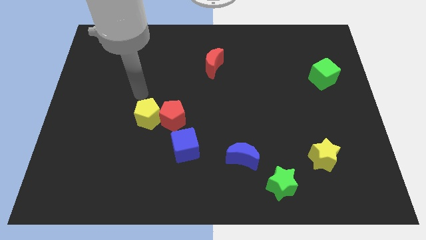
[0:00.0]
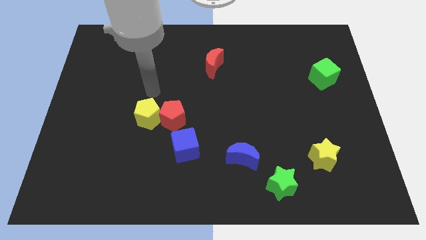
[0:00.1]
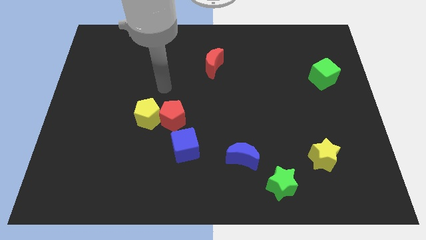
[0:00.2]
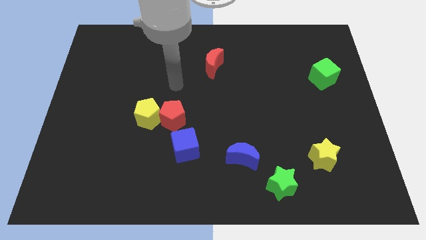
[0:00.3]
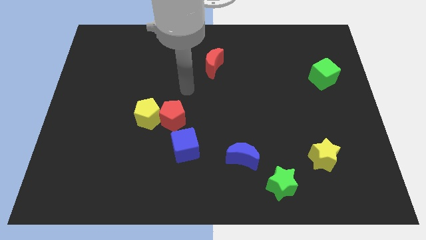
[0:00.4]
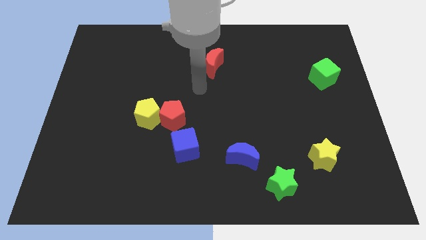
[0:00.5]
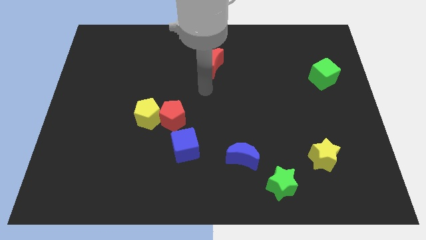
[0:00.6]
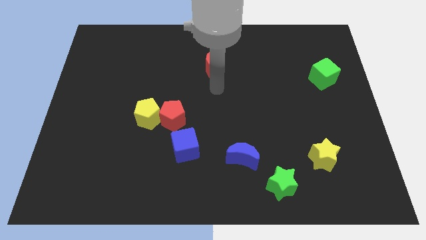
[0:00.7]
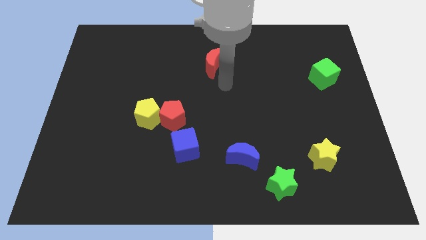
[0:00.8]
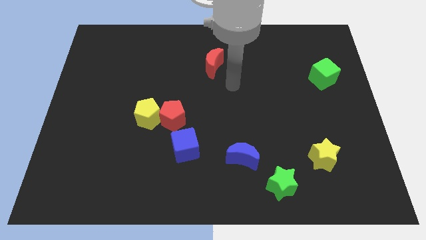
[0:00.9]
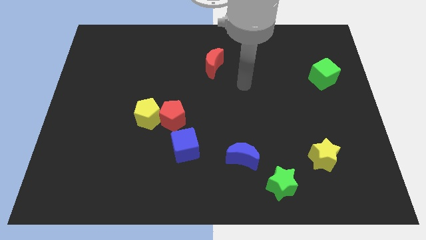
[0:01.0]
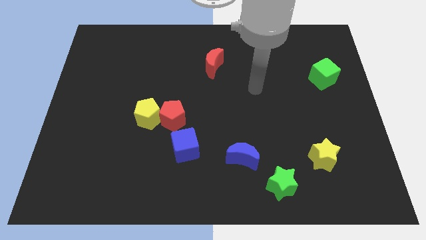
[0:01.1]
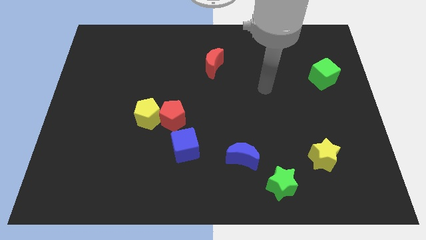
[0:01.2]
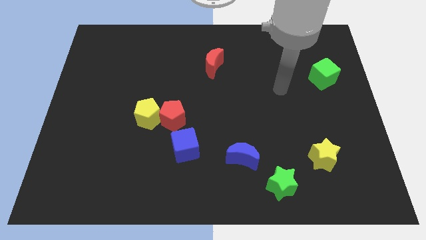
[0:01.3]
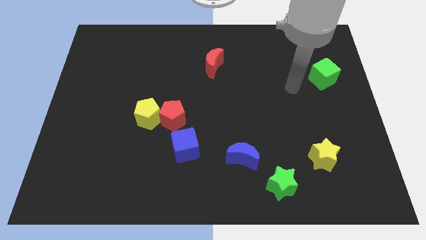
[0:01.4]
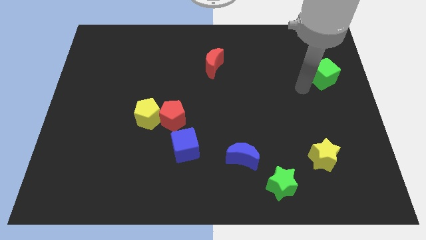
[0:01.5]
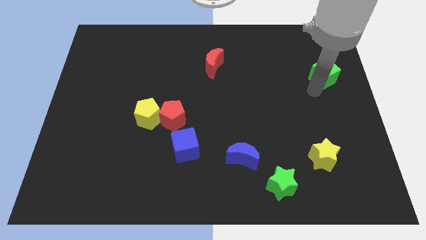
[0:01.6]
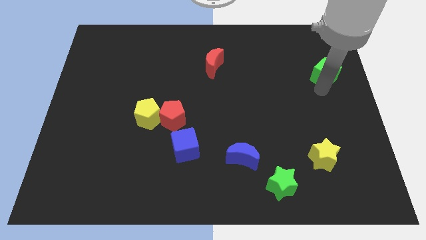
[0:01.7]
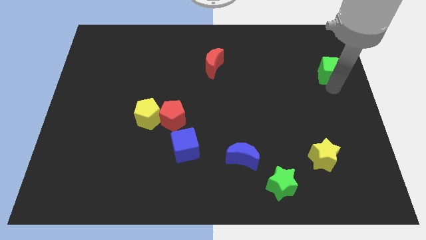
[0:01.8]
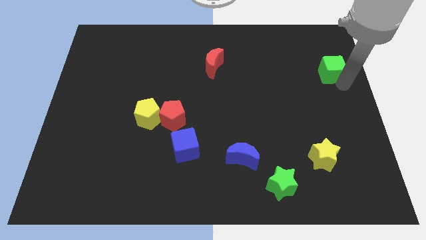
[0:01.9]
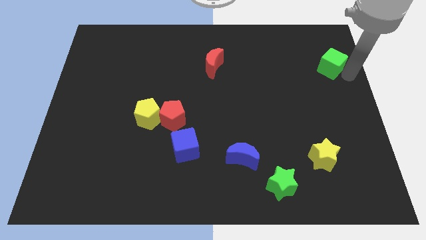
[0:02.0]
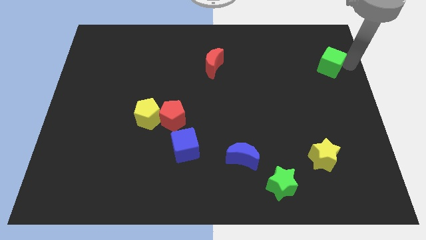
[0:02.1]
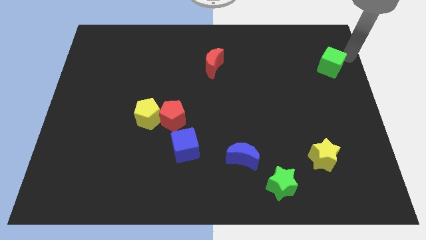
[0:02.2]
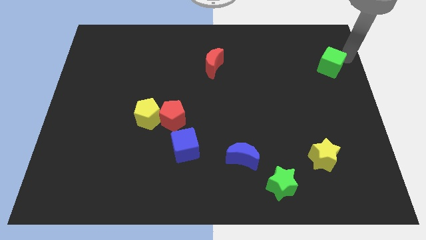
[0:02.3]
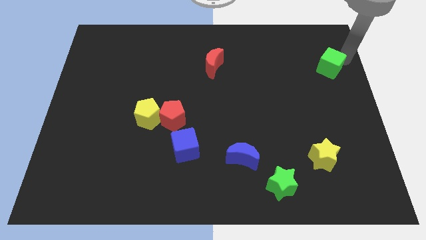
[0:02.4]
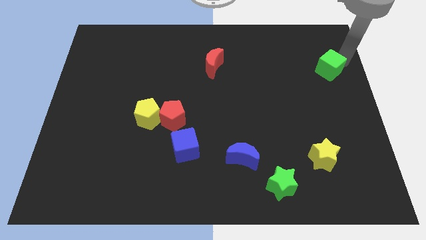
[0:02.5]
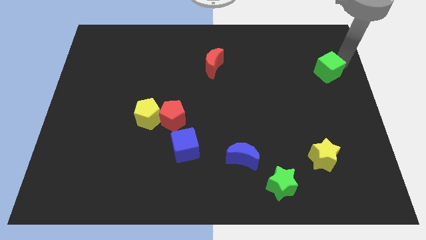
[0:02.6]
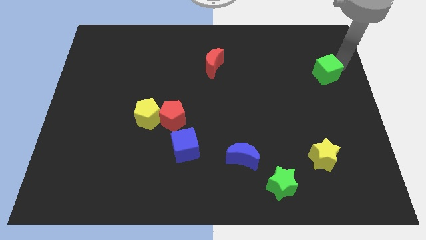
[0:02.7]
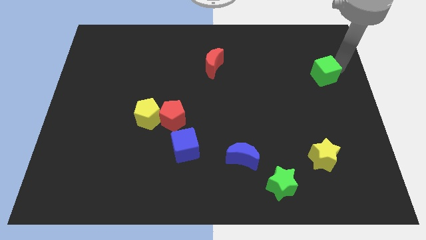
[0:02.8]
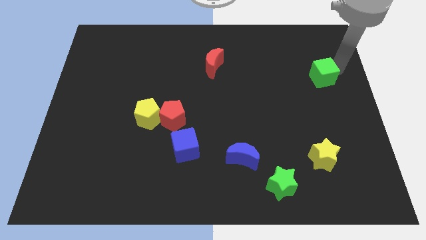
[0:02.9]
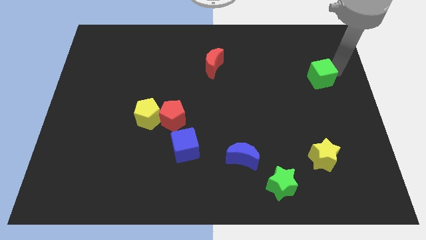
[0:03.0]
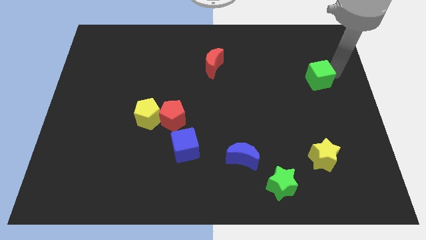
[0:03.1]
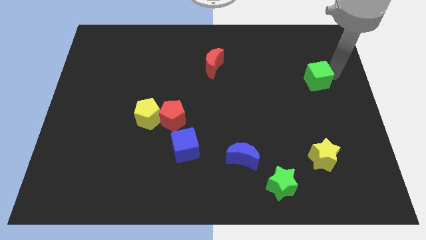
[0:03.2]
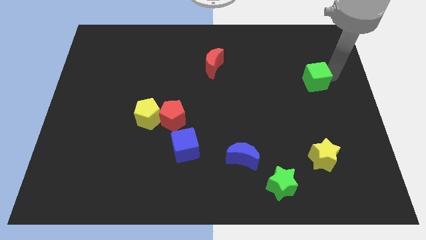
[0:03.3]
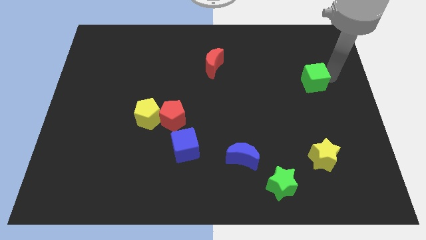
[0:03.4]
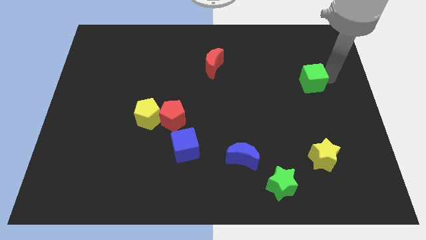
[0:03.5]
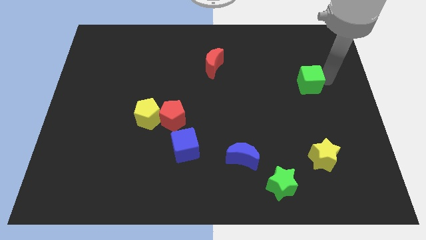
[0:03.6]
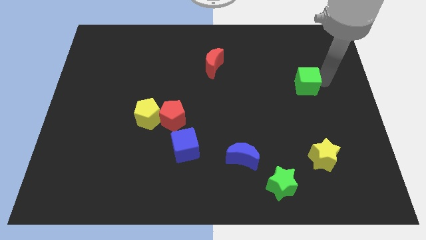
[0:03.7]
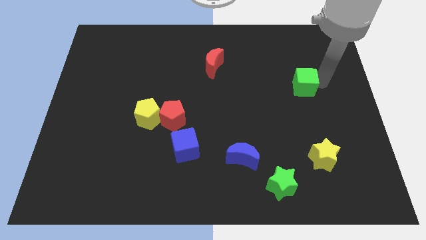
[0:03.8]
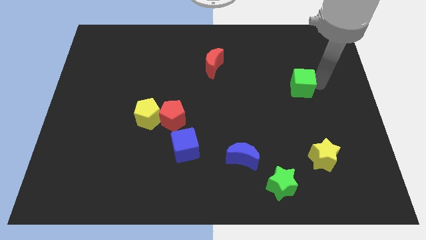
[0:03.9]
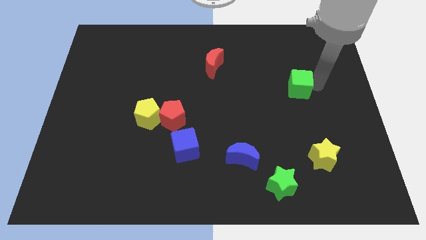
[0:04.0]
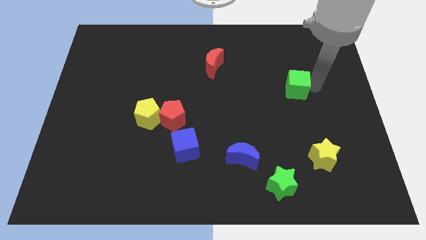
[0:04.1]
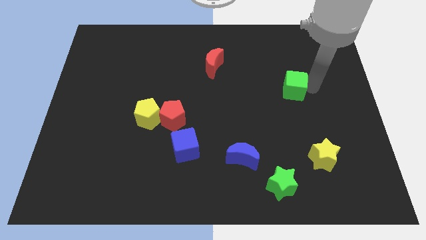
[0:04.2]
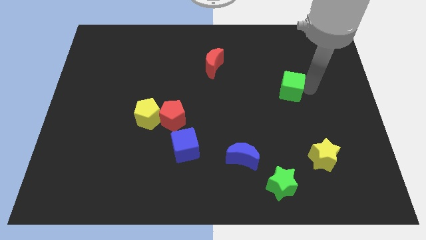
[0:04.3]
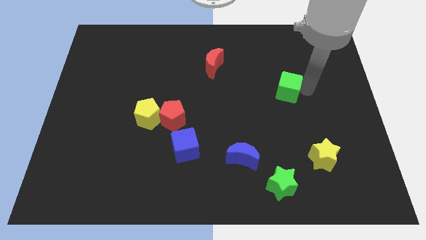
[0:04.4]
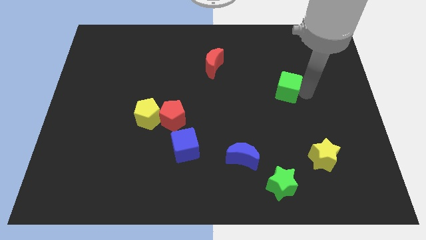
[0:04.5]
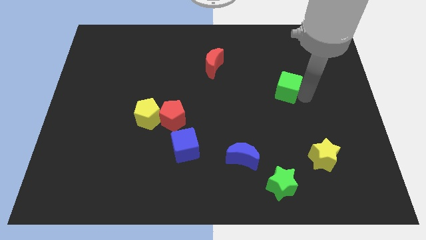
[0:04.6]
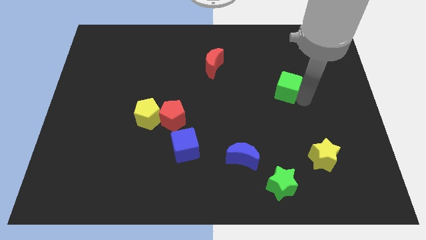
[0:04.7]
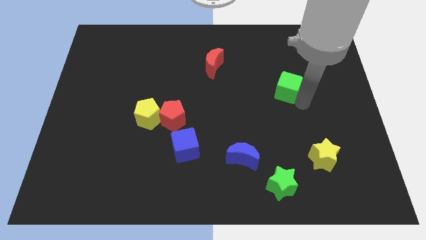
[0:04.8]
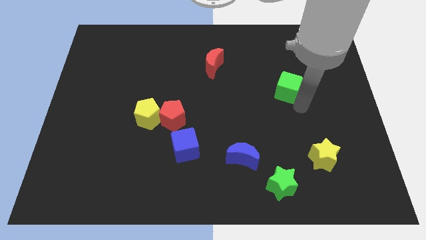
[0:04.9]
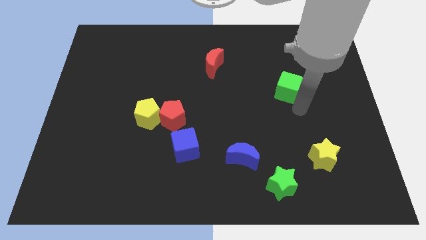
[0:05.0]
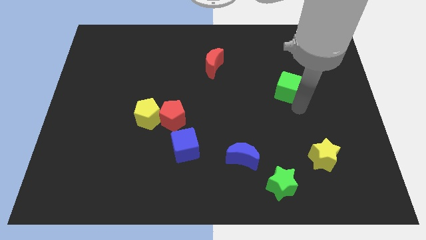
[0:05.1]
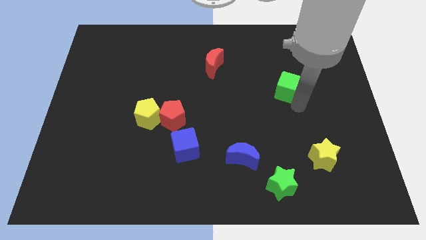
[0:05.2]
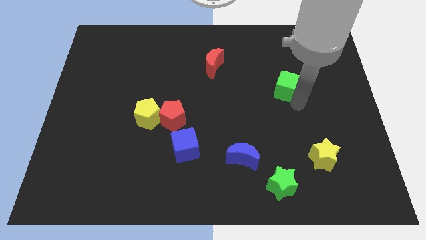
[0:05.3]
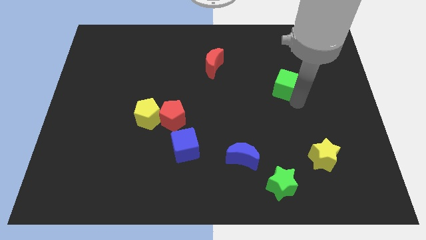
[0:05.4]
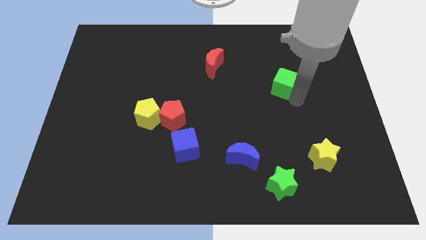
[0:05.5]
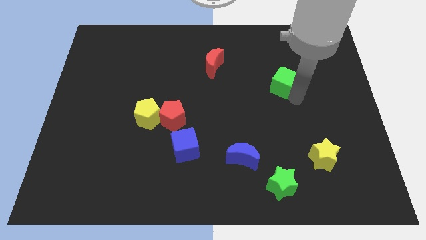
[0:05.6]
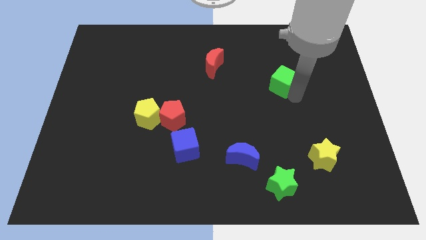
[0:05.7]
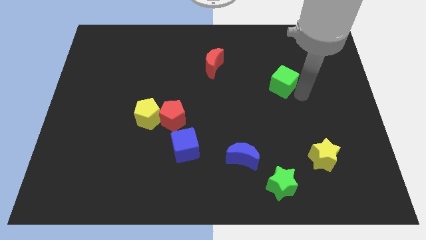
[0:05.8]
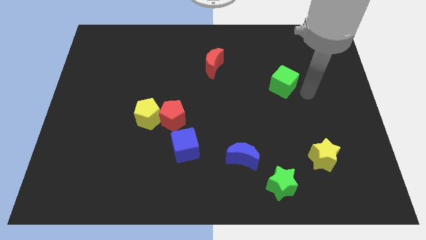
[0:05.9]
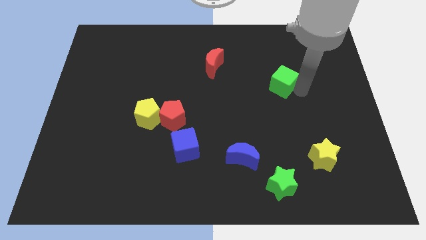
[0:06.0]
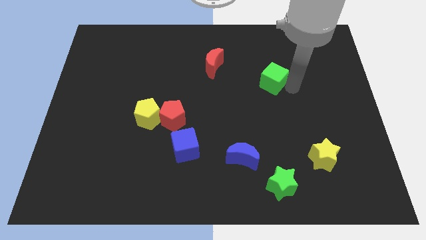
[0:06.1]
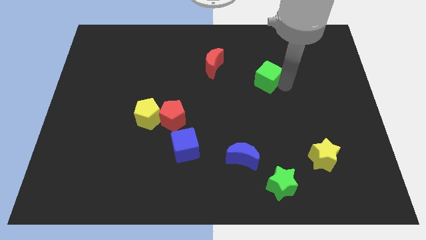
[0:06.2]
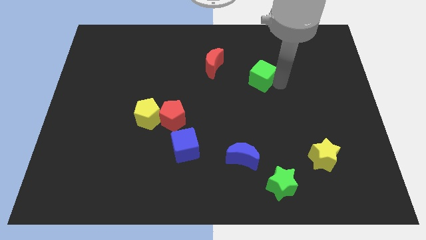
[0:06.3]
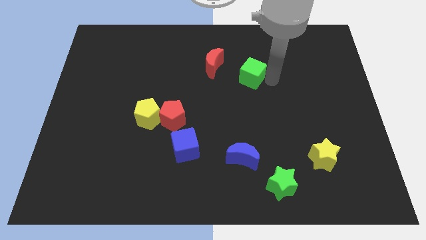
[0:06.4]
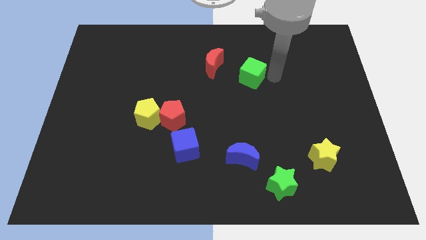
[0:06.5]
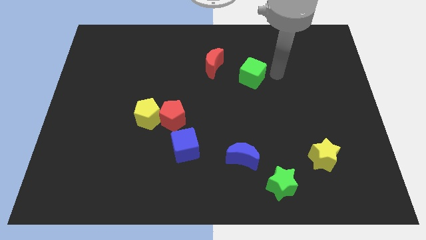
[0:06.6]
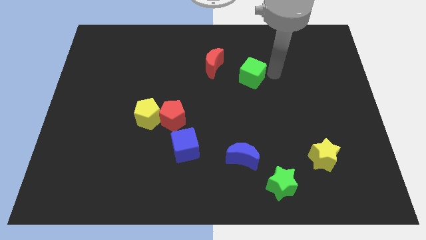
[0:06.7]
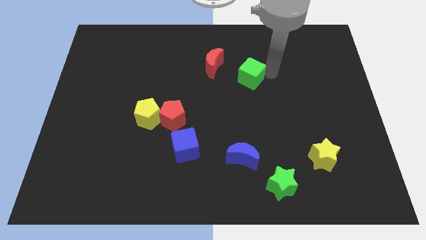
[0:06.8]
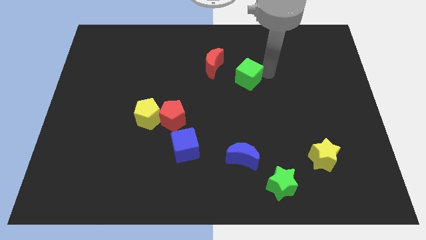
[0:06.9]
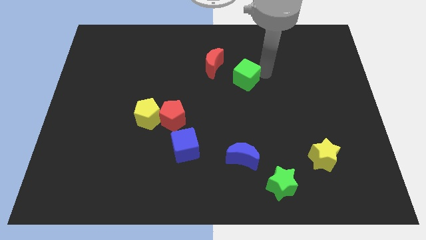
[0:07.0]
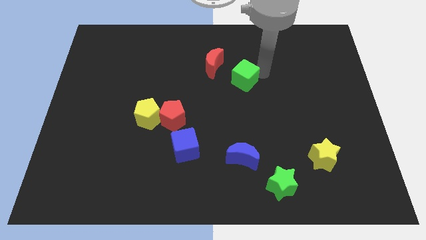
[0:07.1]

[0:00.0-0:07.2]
push the green cube left

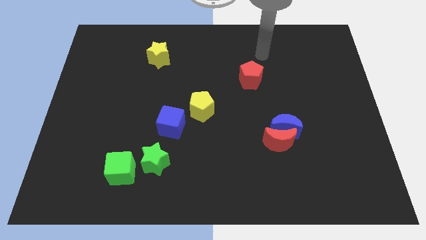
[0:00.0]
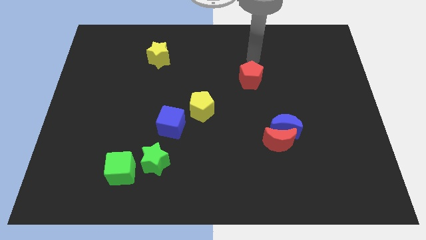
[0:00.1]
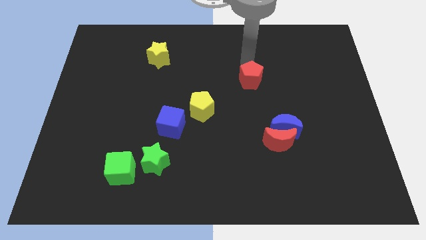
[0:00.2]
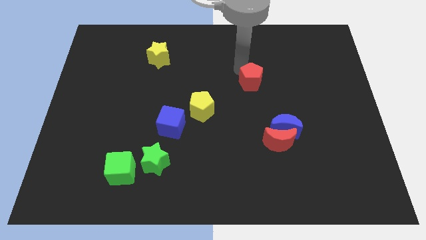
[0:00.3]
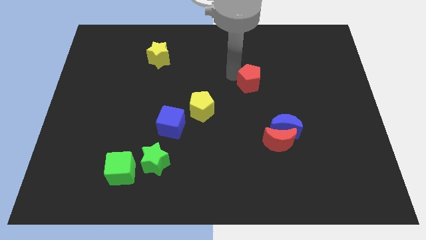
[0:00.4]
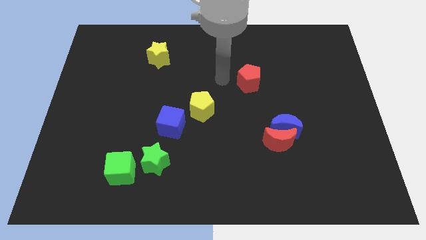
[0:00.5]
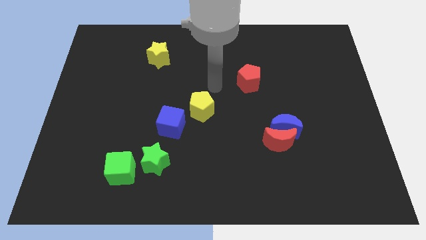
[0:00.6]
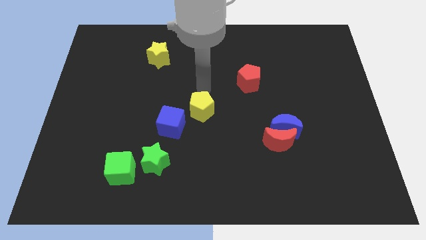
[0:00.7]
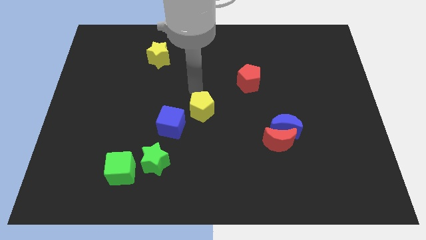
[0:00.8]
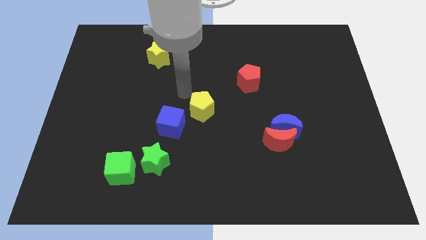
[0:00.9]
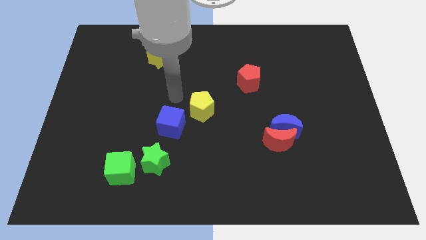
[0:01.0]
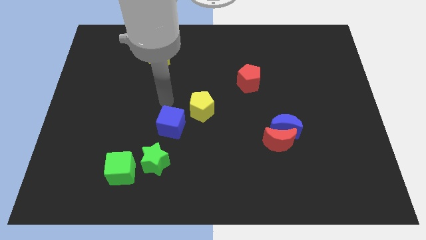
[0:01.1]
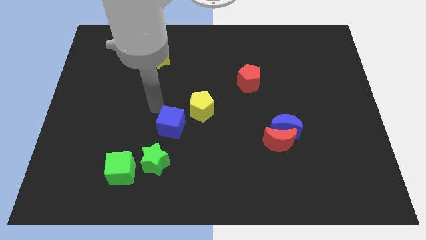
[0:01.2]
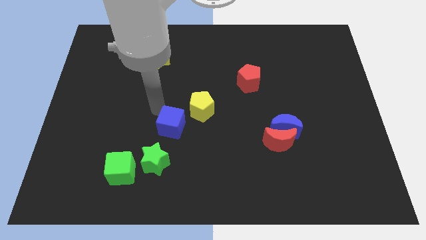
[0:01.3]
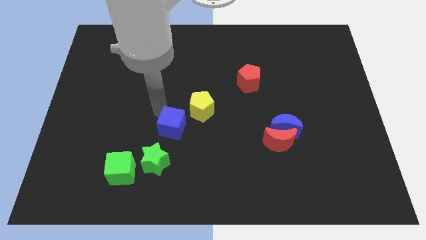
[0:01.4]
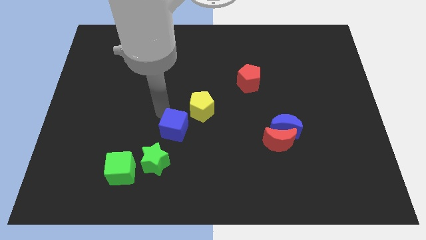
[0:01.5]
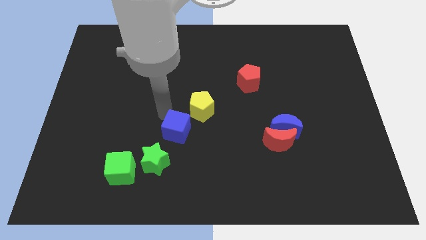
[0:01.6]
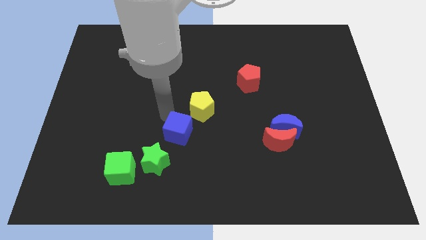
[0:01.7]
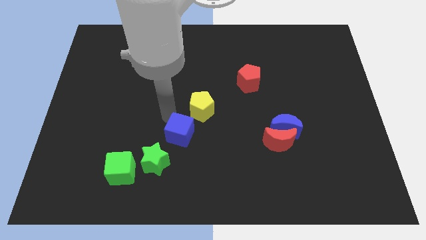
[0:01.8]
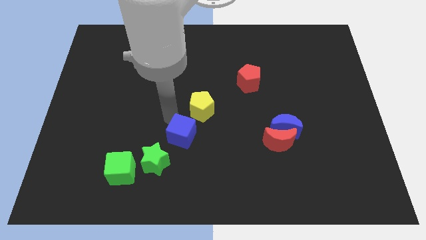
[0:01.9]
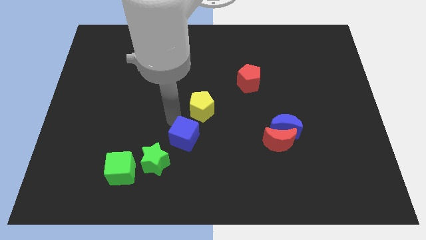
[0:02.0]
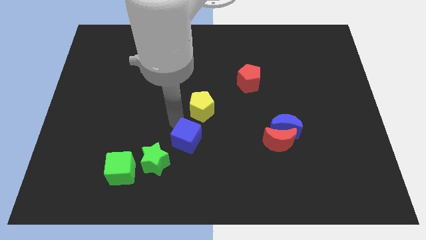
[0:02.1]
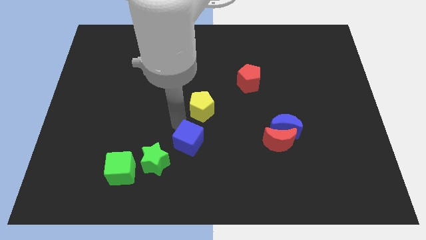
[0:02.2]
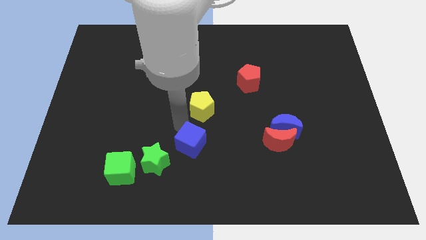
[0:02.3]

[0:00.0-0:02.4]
push the blue cube a bit down and then right
